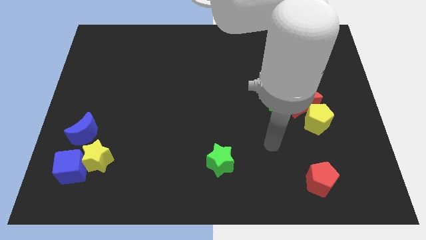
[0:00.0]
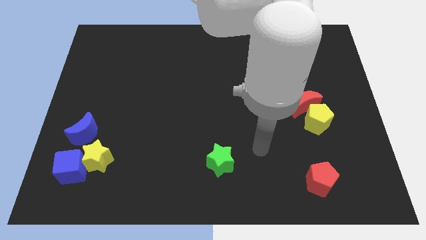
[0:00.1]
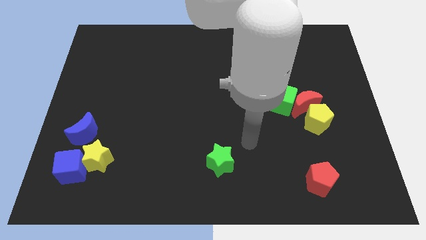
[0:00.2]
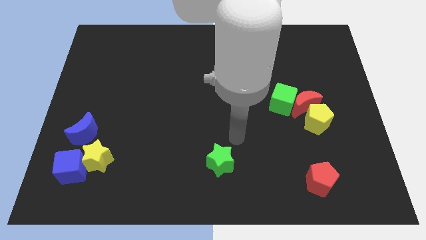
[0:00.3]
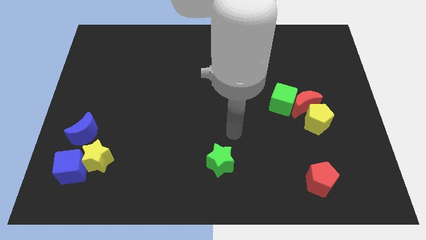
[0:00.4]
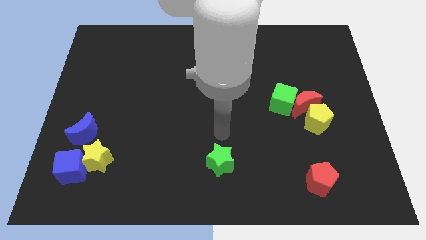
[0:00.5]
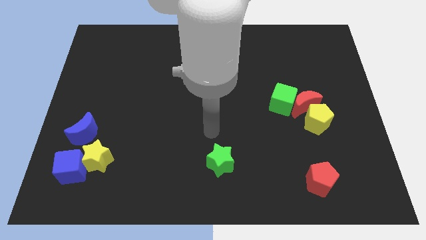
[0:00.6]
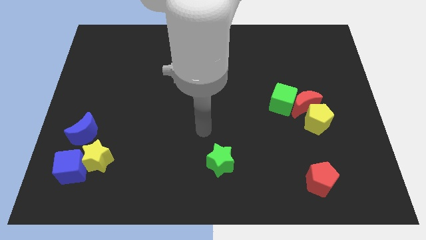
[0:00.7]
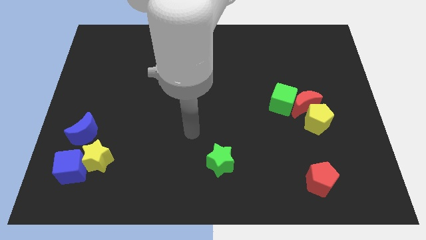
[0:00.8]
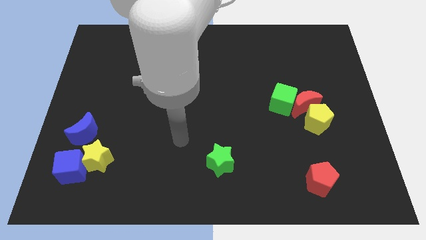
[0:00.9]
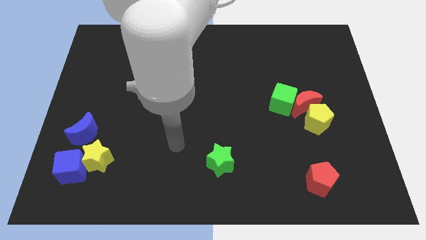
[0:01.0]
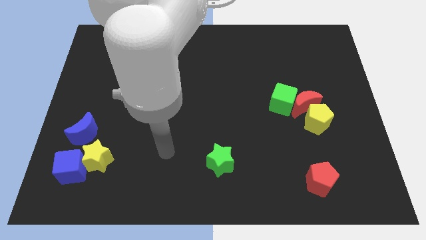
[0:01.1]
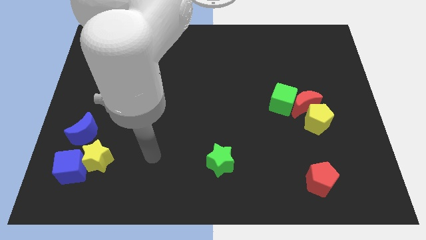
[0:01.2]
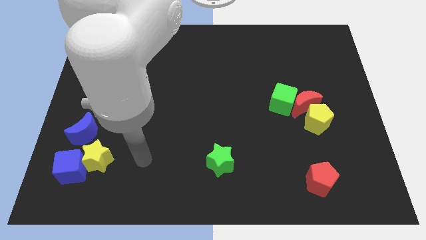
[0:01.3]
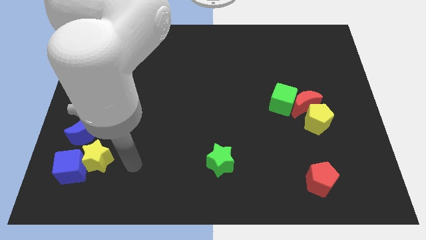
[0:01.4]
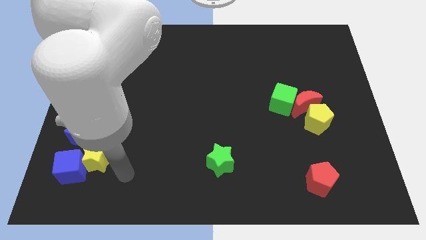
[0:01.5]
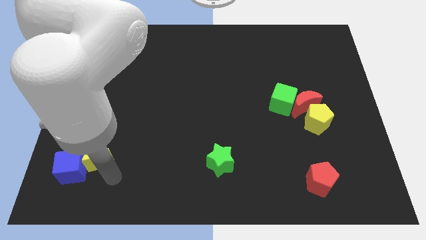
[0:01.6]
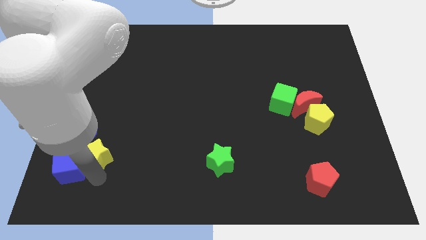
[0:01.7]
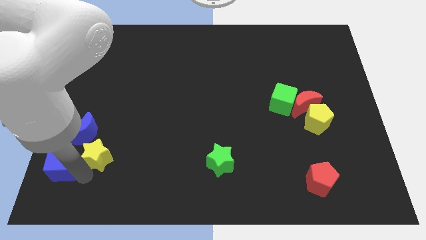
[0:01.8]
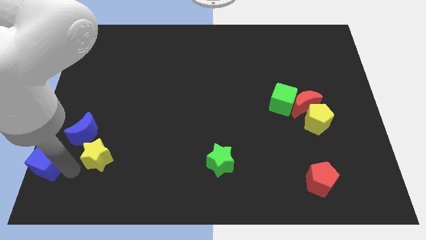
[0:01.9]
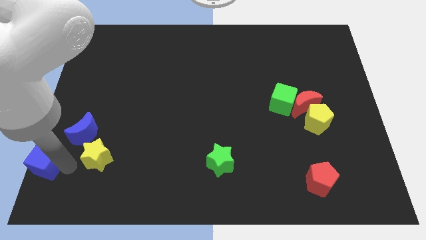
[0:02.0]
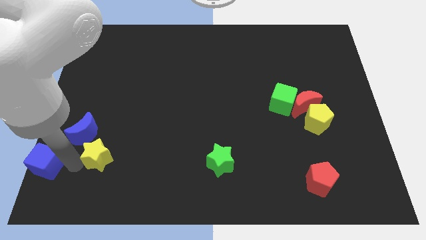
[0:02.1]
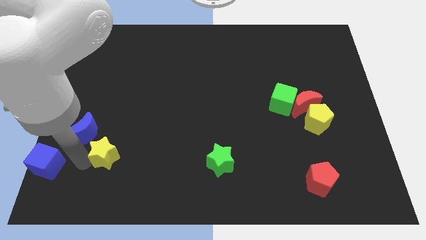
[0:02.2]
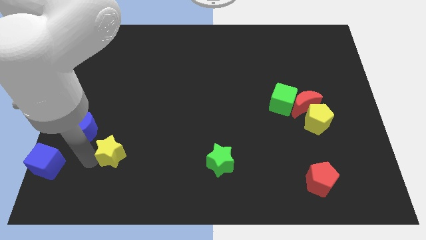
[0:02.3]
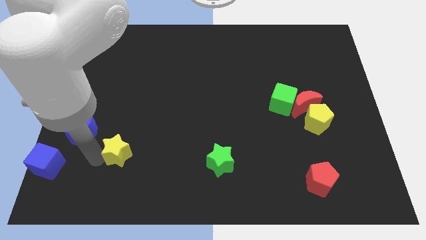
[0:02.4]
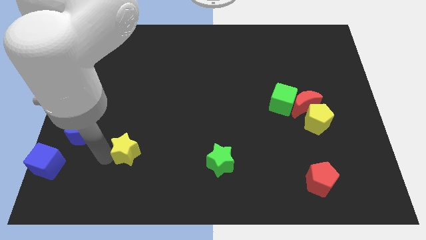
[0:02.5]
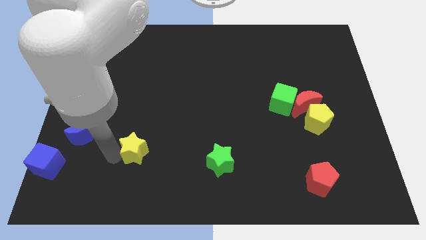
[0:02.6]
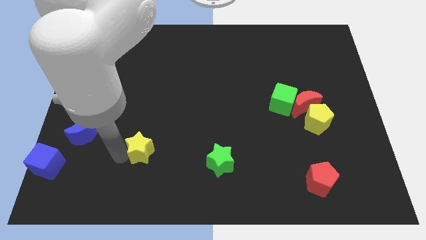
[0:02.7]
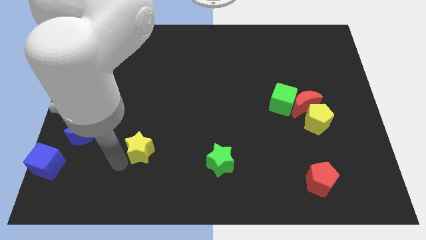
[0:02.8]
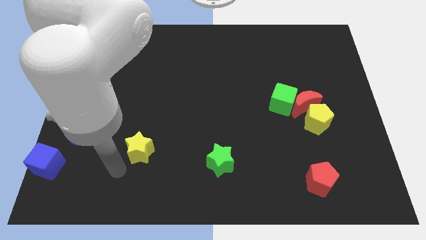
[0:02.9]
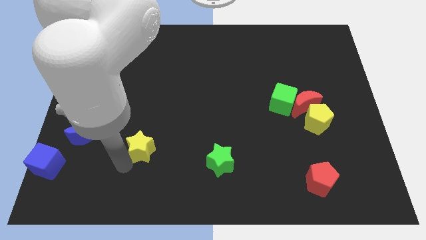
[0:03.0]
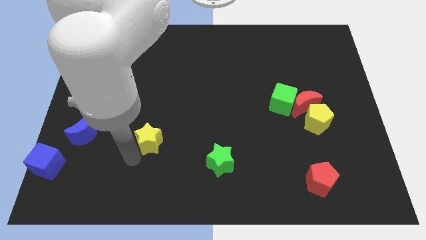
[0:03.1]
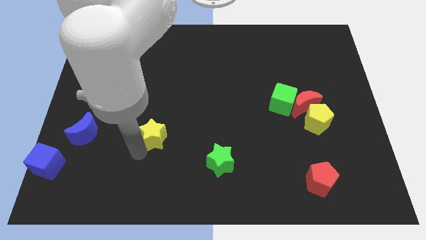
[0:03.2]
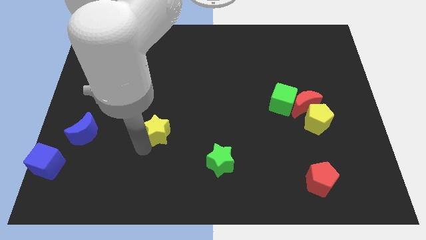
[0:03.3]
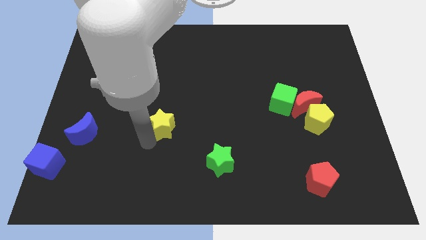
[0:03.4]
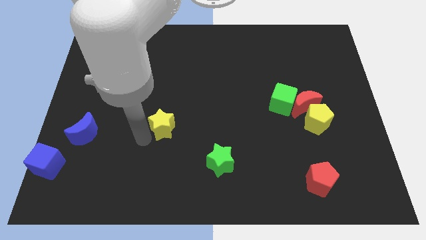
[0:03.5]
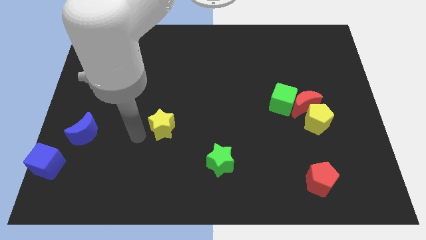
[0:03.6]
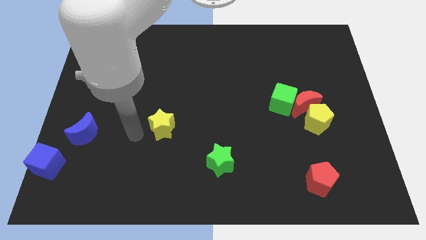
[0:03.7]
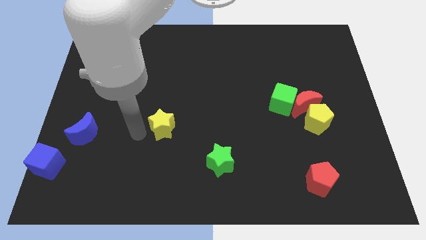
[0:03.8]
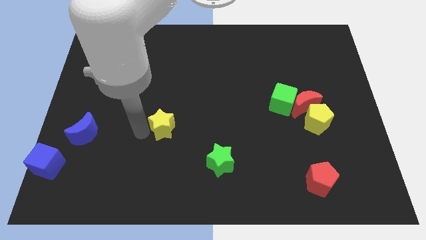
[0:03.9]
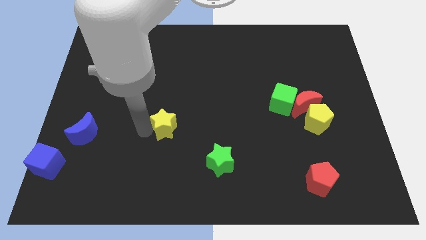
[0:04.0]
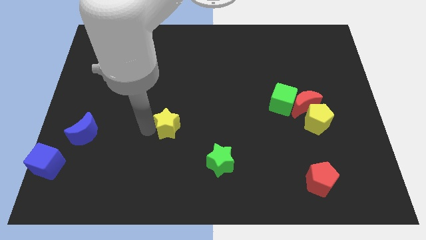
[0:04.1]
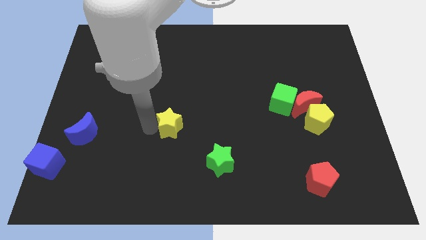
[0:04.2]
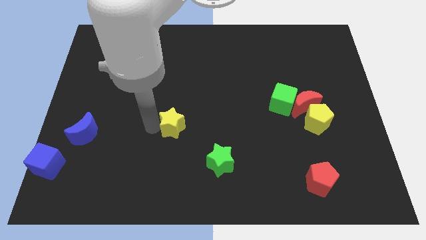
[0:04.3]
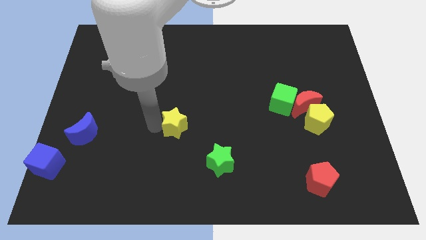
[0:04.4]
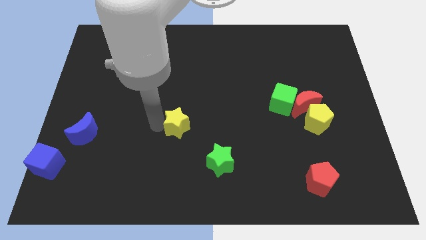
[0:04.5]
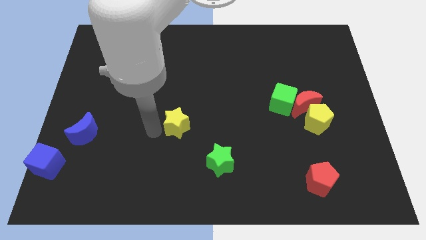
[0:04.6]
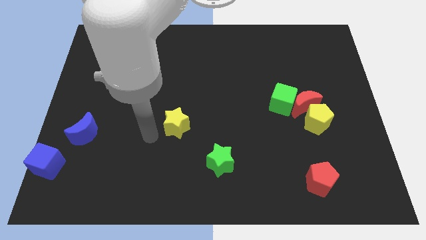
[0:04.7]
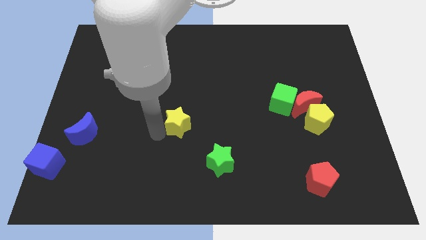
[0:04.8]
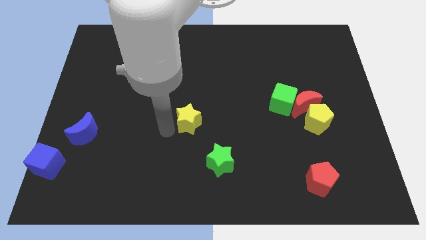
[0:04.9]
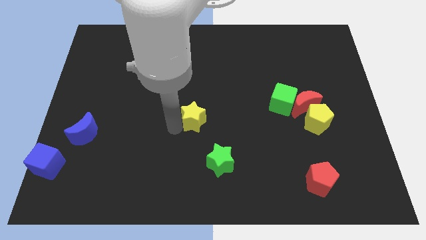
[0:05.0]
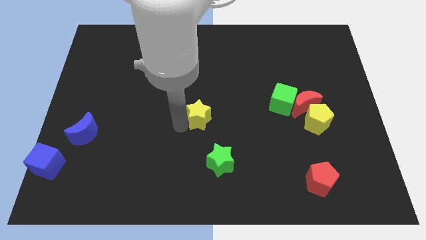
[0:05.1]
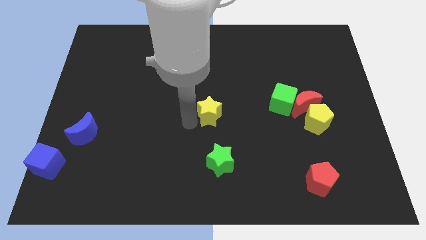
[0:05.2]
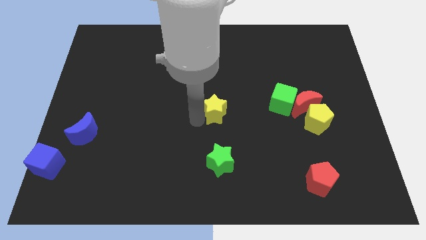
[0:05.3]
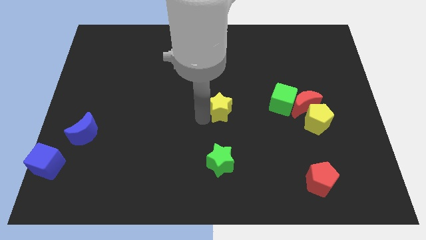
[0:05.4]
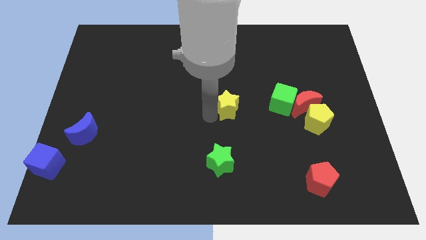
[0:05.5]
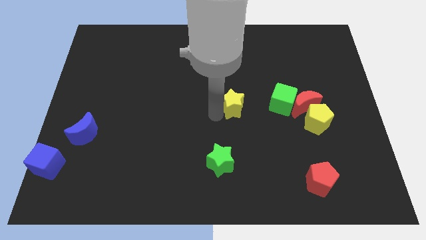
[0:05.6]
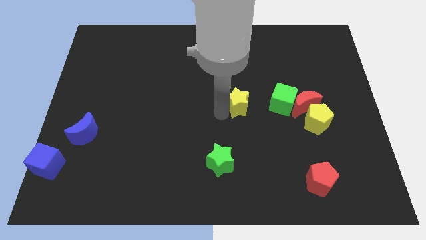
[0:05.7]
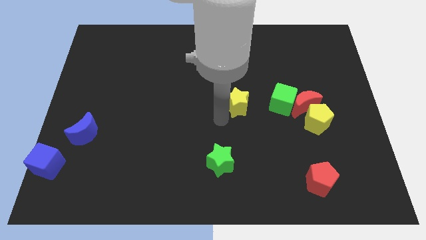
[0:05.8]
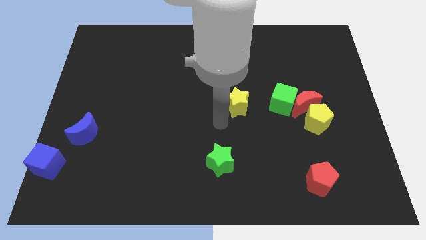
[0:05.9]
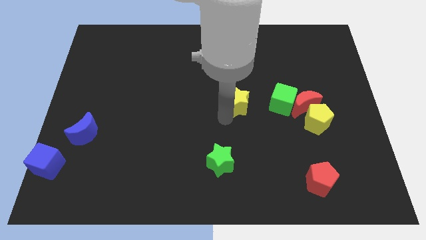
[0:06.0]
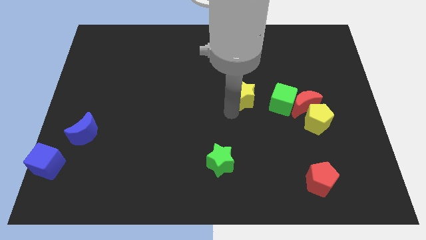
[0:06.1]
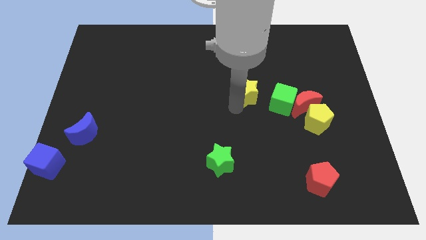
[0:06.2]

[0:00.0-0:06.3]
put the yellow star to the top left side of the green cube

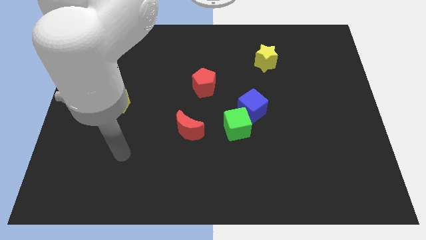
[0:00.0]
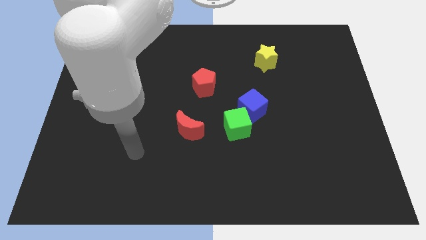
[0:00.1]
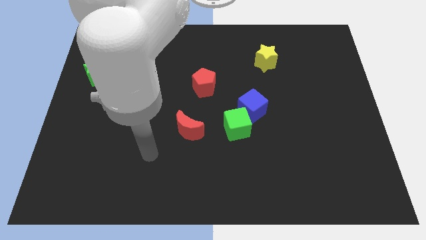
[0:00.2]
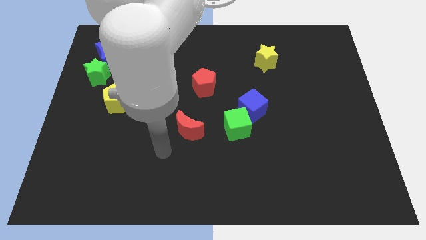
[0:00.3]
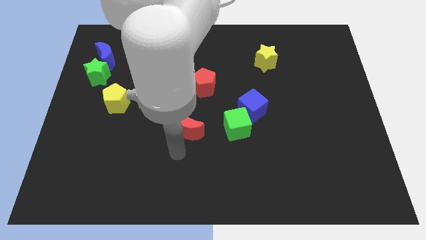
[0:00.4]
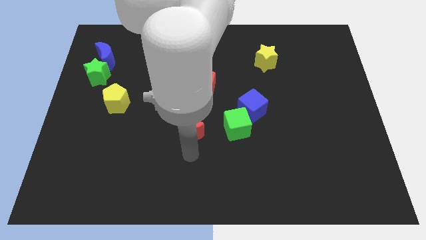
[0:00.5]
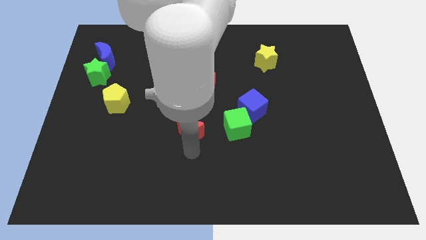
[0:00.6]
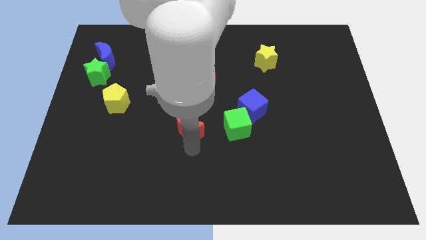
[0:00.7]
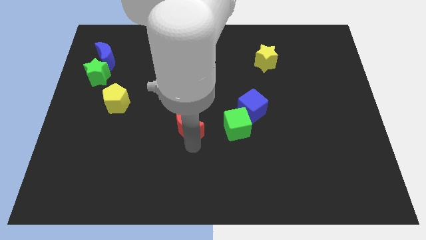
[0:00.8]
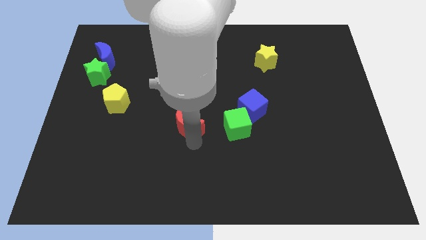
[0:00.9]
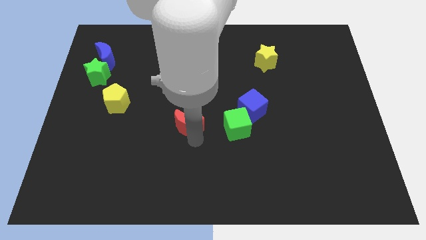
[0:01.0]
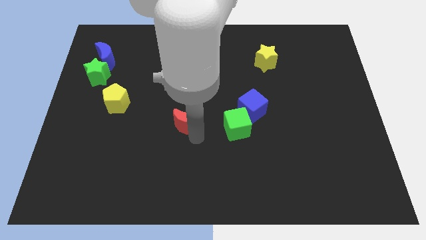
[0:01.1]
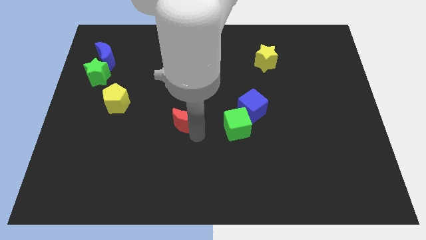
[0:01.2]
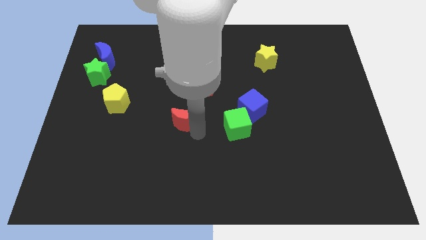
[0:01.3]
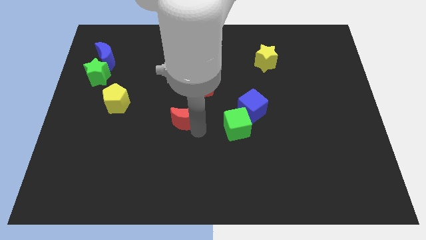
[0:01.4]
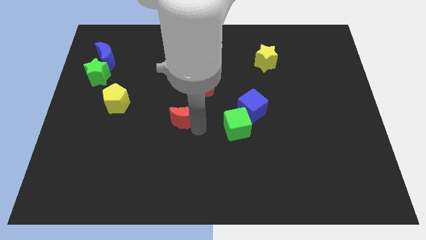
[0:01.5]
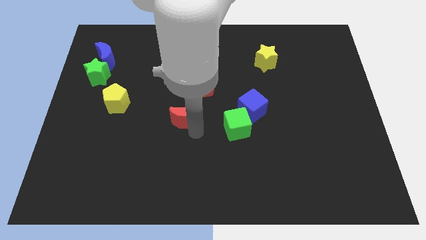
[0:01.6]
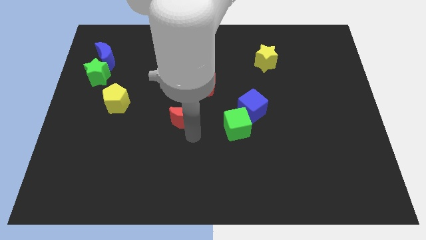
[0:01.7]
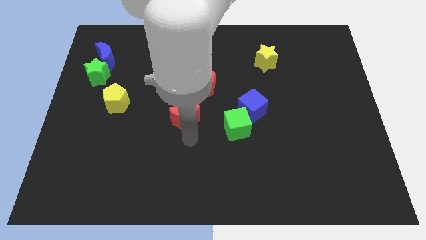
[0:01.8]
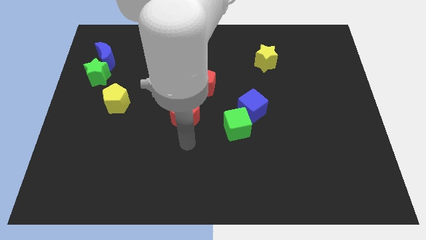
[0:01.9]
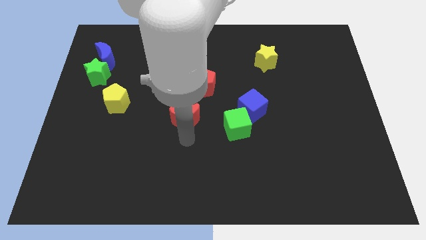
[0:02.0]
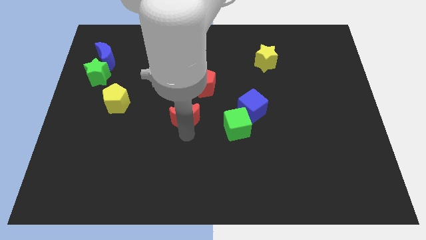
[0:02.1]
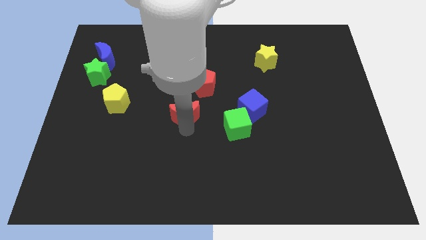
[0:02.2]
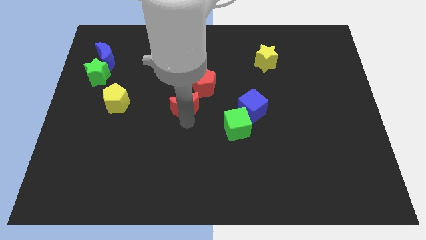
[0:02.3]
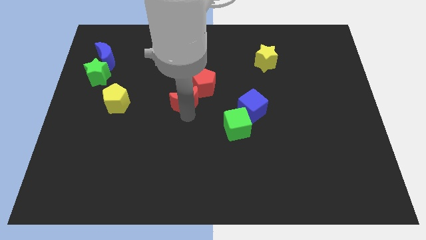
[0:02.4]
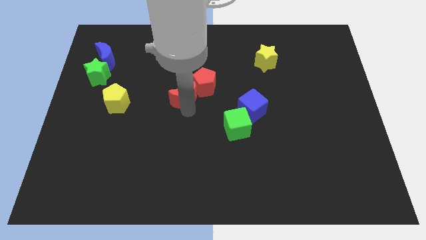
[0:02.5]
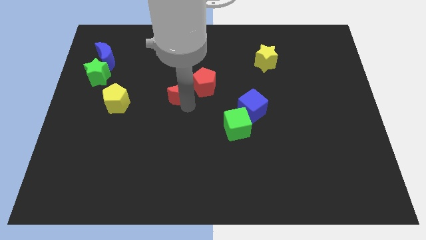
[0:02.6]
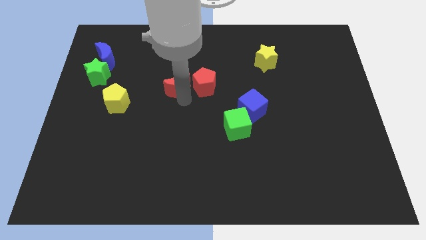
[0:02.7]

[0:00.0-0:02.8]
move the red moon to the top left of the red pentagon
